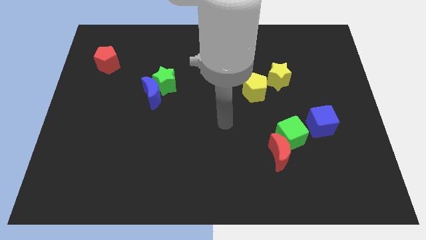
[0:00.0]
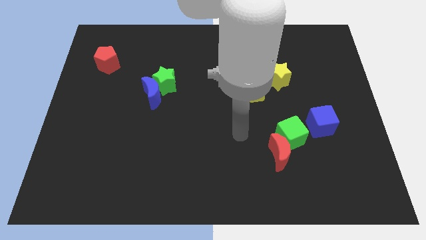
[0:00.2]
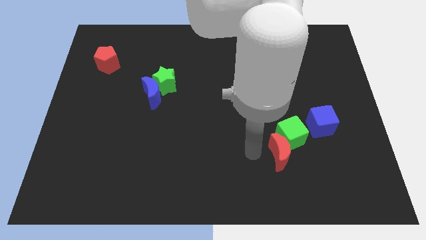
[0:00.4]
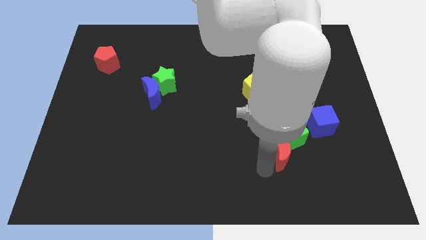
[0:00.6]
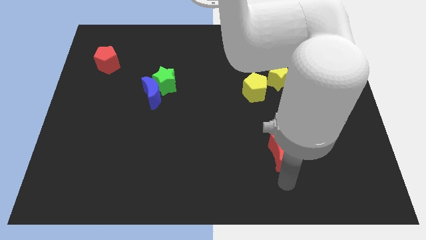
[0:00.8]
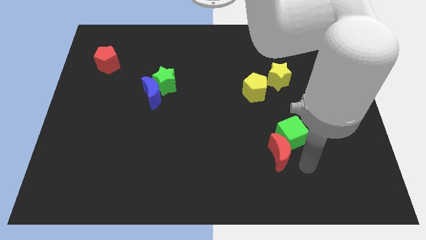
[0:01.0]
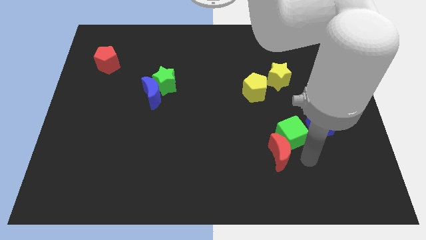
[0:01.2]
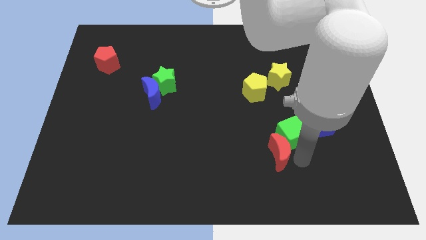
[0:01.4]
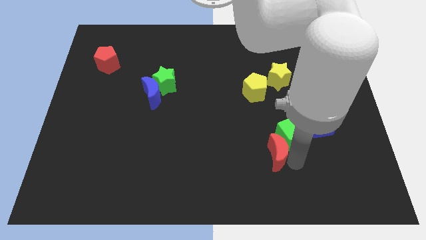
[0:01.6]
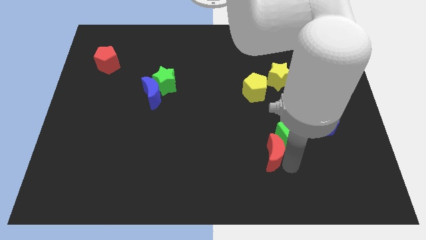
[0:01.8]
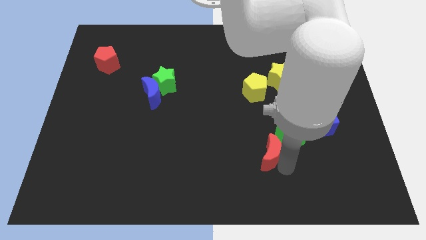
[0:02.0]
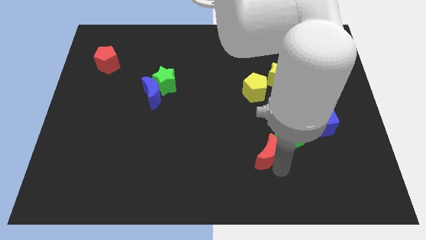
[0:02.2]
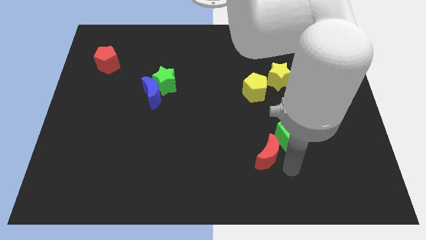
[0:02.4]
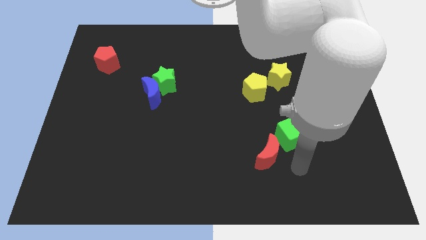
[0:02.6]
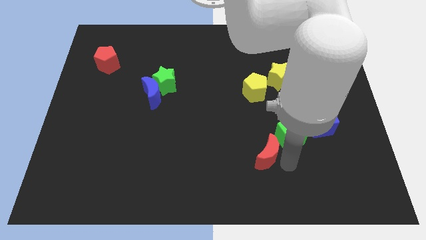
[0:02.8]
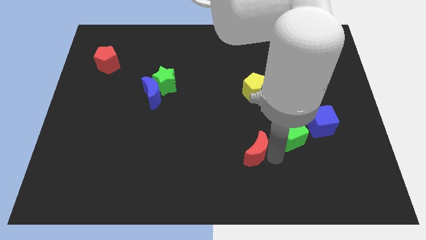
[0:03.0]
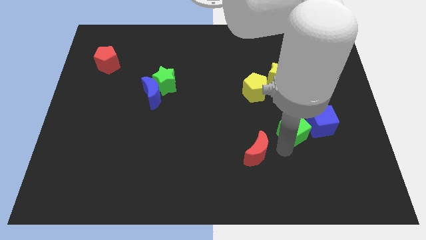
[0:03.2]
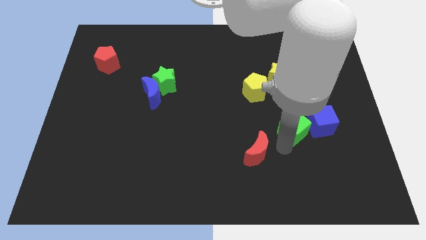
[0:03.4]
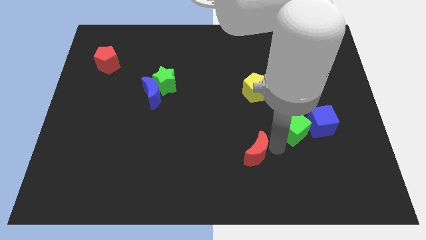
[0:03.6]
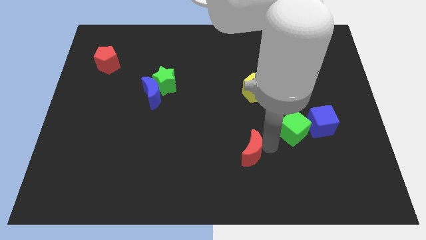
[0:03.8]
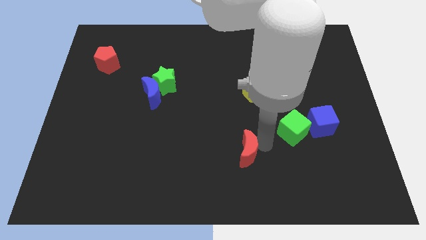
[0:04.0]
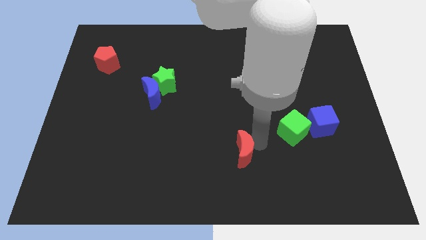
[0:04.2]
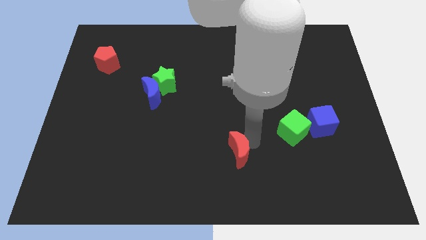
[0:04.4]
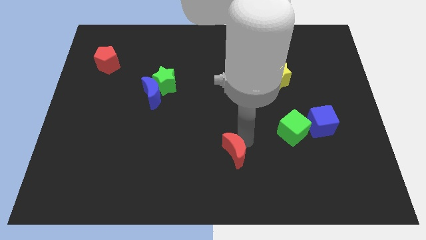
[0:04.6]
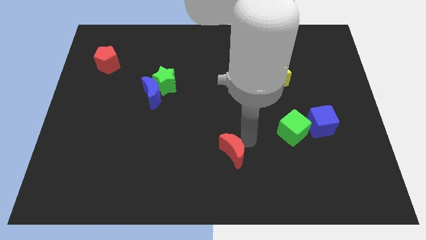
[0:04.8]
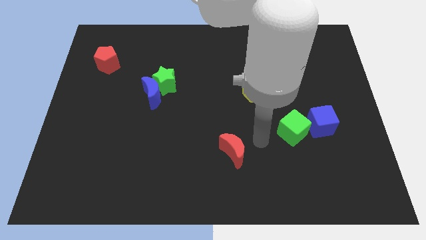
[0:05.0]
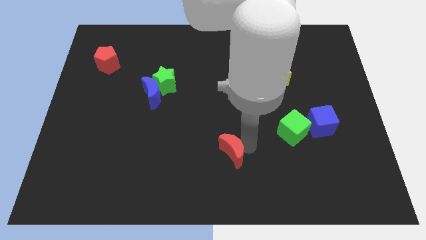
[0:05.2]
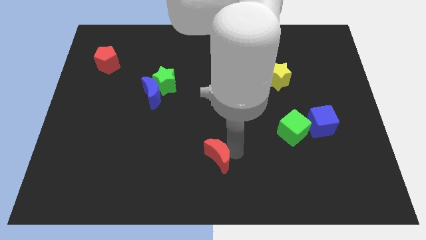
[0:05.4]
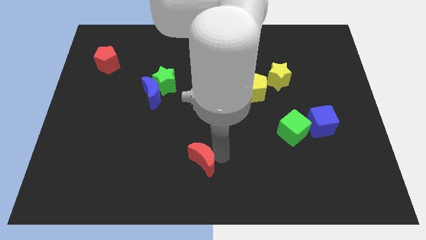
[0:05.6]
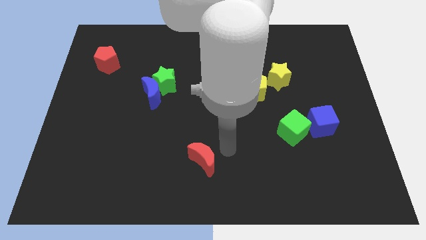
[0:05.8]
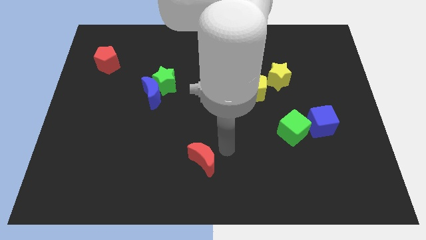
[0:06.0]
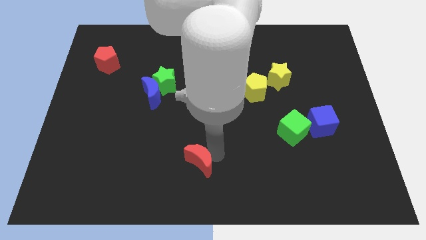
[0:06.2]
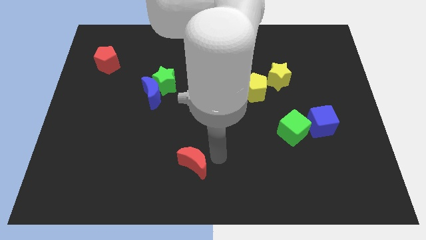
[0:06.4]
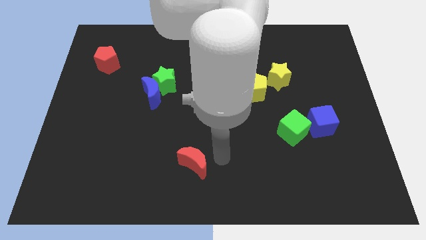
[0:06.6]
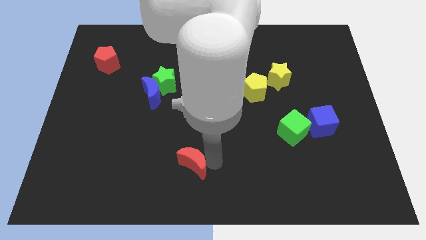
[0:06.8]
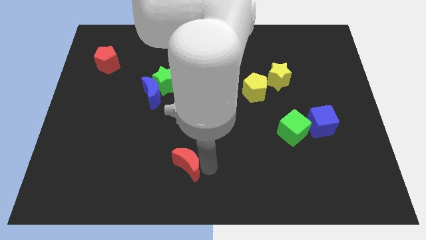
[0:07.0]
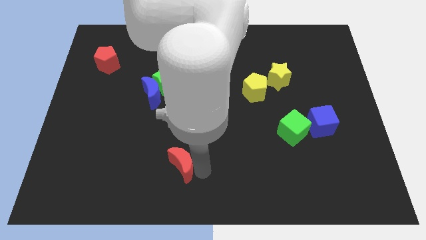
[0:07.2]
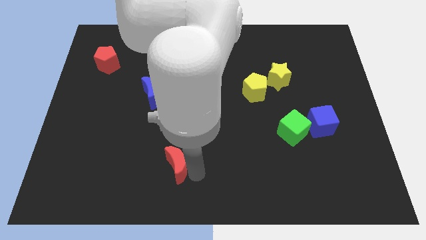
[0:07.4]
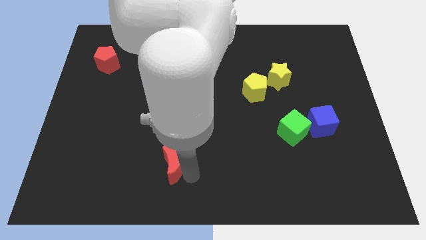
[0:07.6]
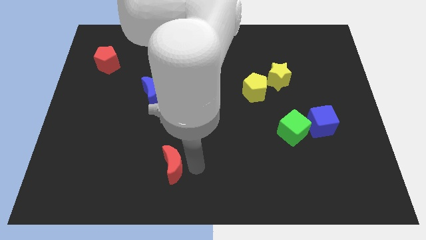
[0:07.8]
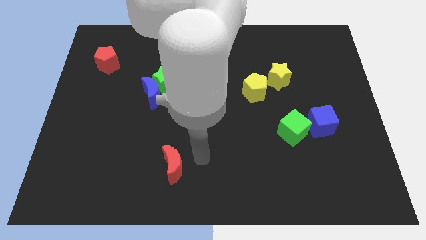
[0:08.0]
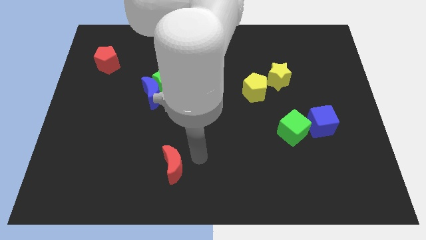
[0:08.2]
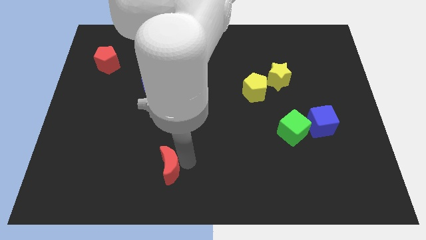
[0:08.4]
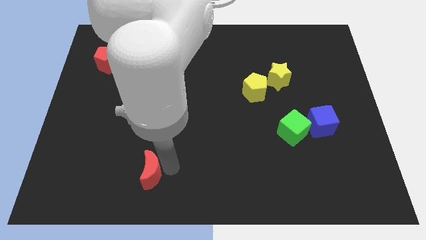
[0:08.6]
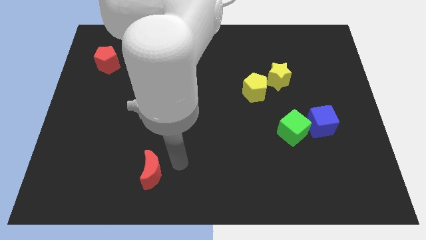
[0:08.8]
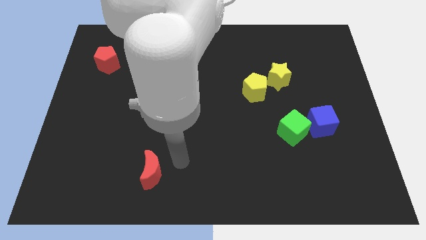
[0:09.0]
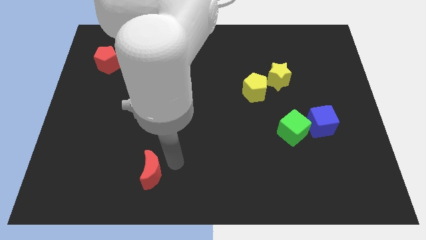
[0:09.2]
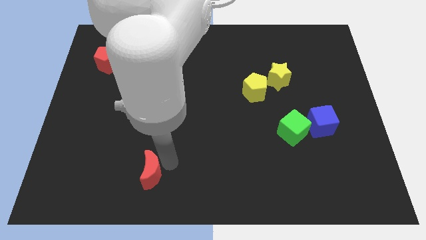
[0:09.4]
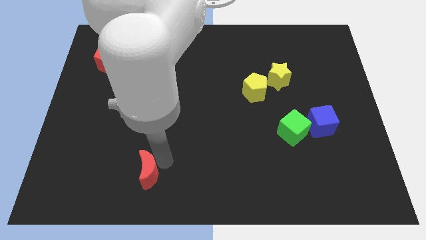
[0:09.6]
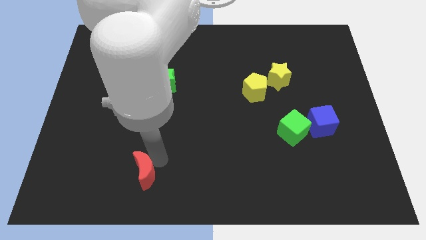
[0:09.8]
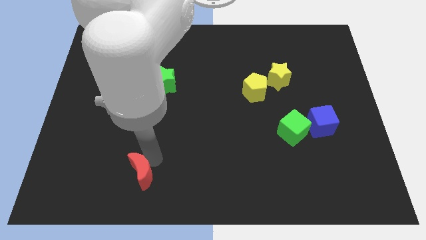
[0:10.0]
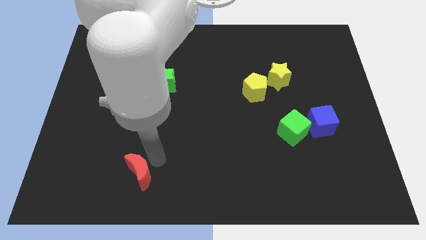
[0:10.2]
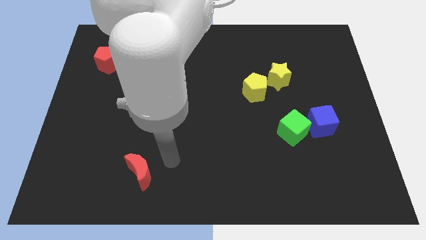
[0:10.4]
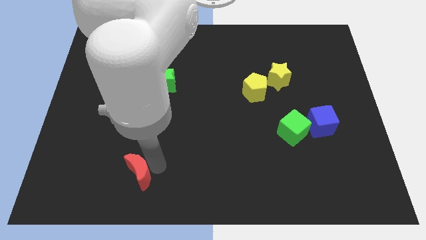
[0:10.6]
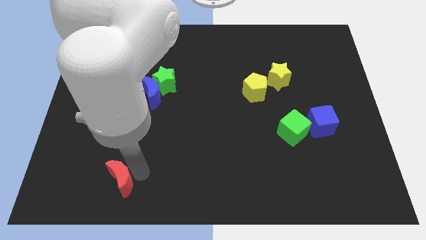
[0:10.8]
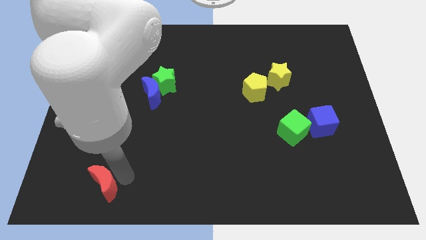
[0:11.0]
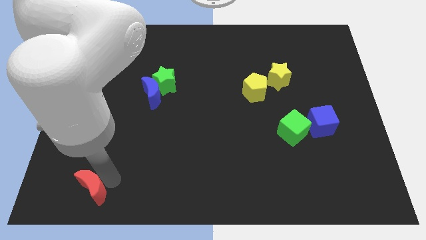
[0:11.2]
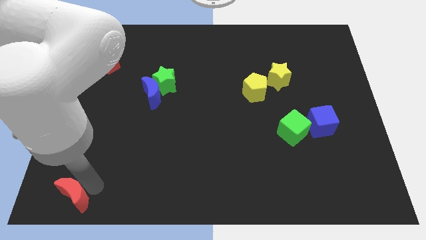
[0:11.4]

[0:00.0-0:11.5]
slide the red moon to the bottom left

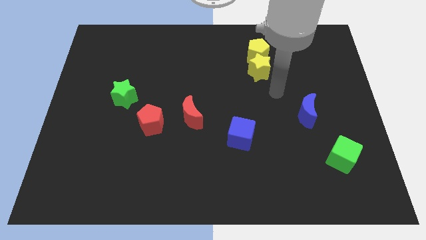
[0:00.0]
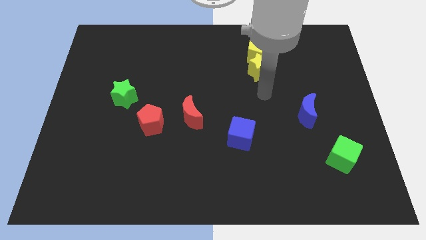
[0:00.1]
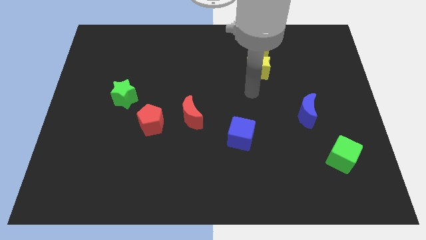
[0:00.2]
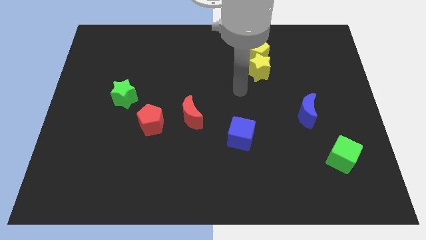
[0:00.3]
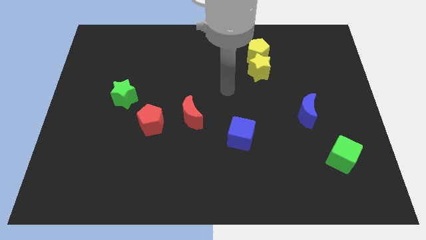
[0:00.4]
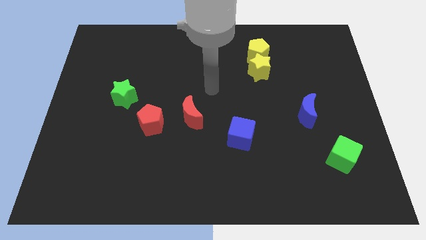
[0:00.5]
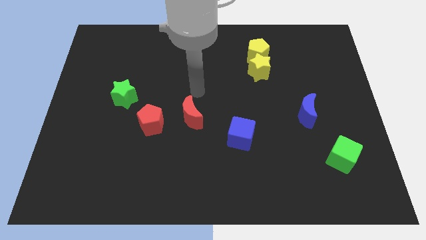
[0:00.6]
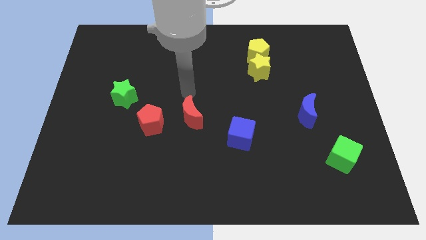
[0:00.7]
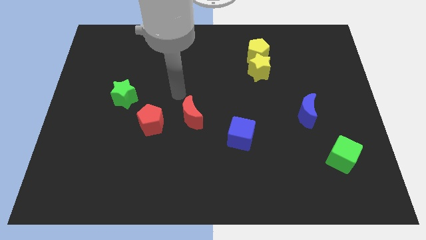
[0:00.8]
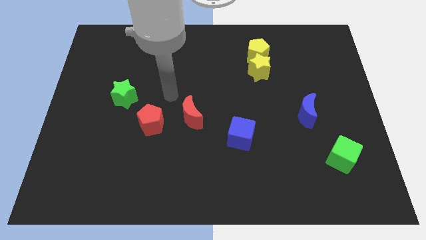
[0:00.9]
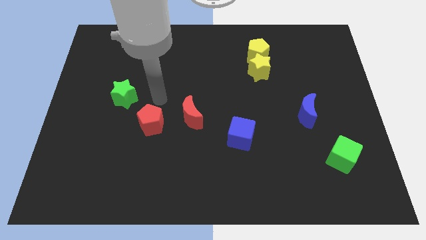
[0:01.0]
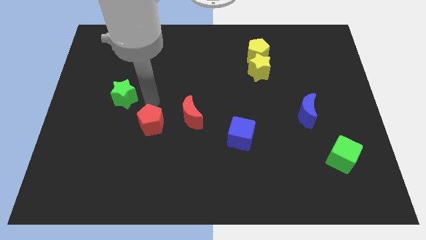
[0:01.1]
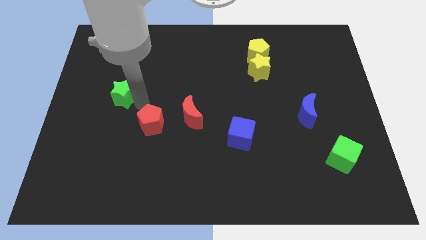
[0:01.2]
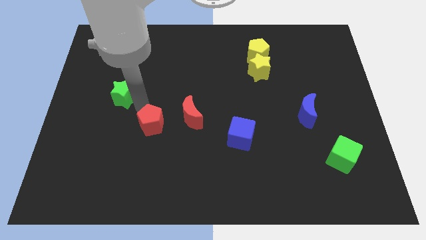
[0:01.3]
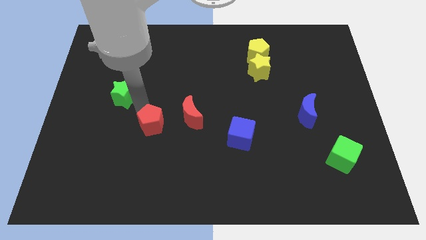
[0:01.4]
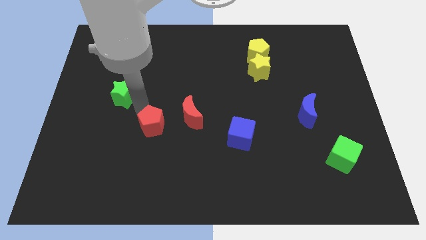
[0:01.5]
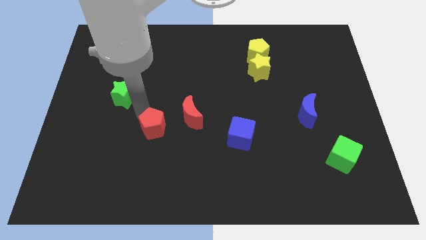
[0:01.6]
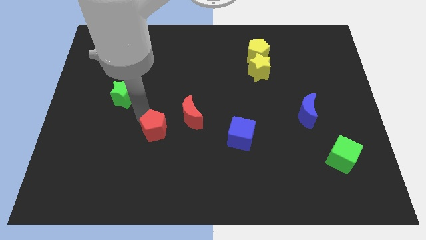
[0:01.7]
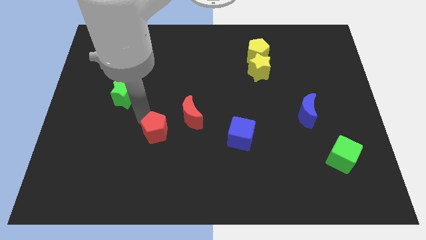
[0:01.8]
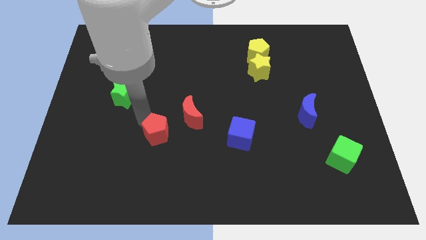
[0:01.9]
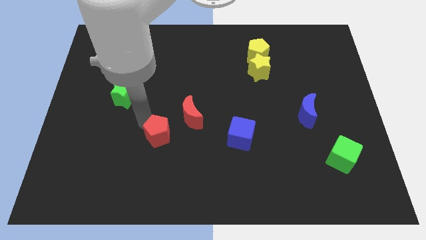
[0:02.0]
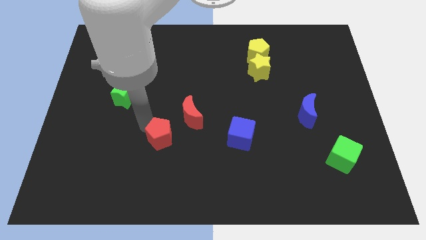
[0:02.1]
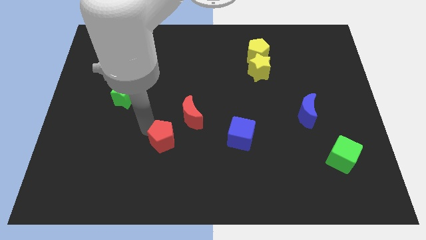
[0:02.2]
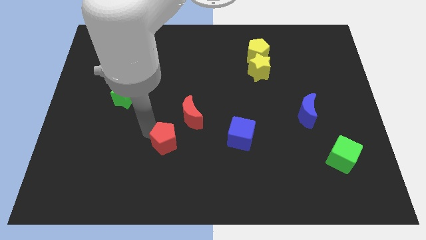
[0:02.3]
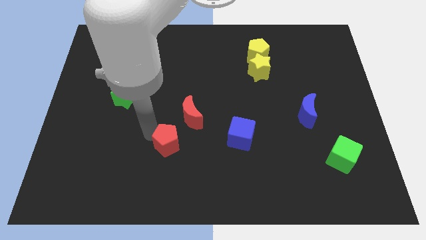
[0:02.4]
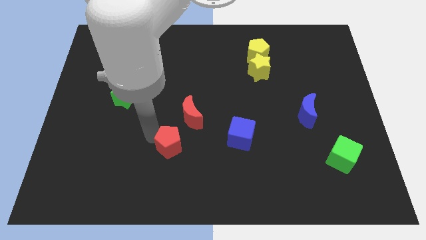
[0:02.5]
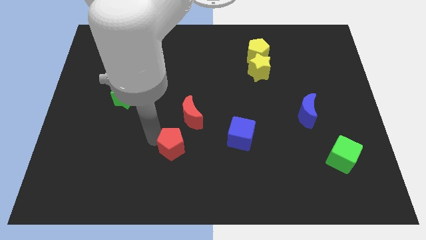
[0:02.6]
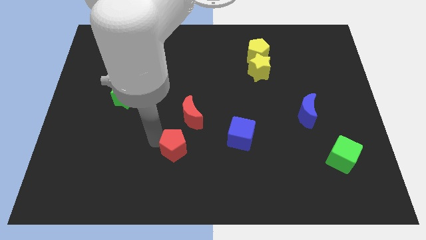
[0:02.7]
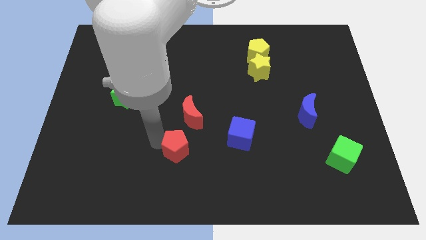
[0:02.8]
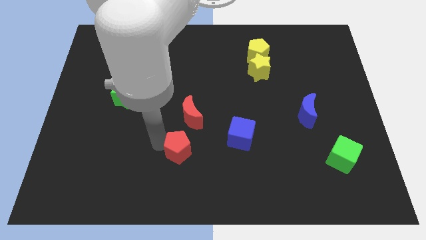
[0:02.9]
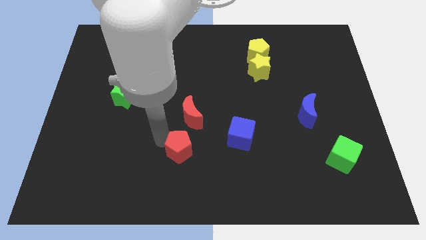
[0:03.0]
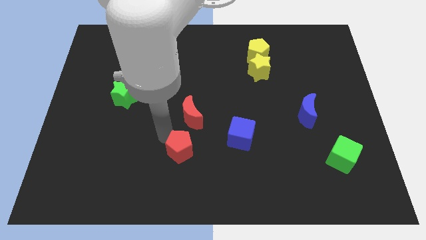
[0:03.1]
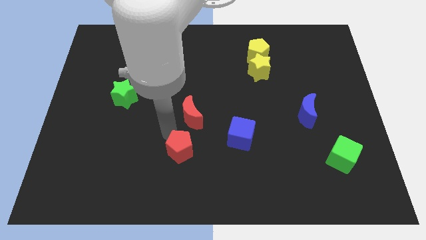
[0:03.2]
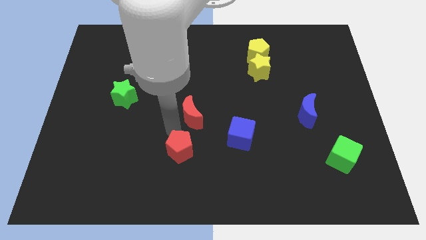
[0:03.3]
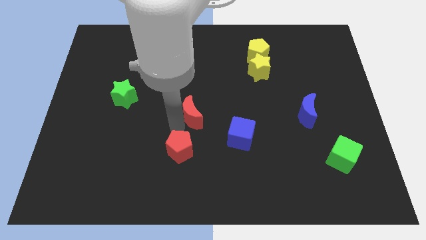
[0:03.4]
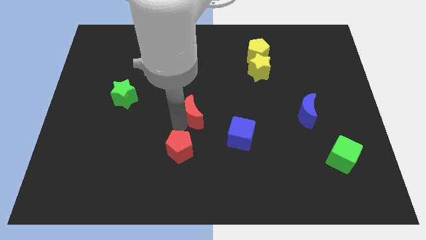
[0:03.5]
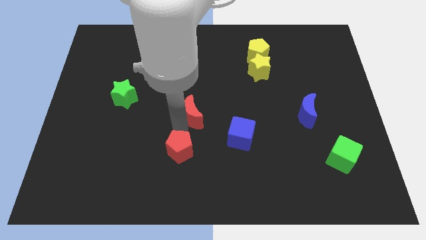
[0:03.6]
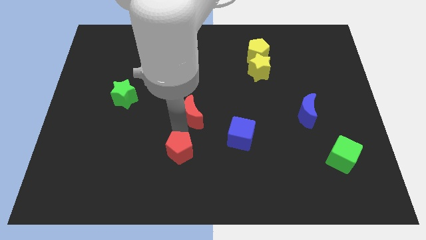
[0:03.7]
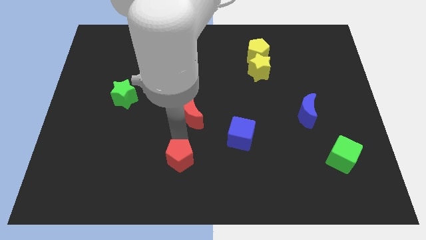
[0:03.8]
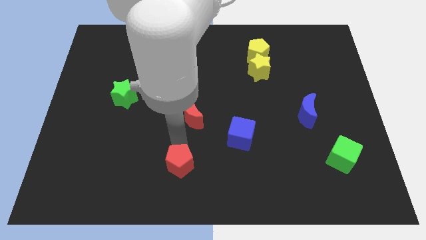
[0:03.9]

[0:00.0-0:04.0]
move the red pentagon to the bottom
